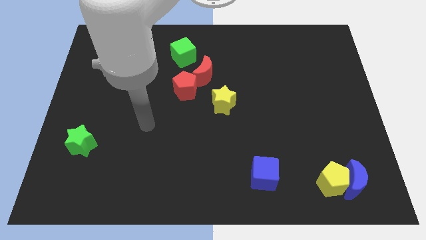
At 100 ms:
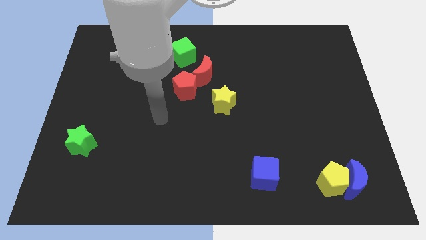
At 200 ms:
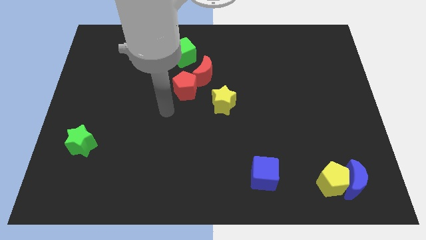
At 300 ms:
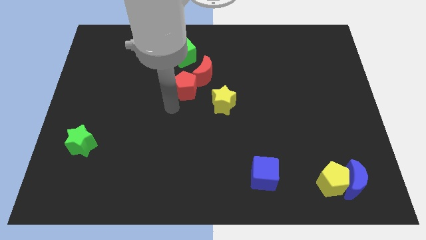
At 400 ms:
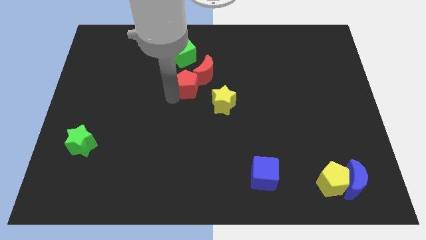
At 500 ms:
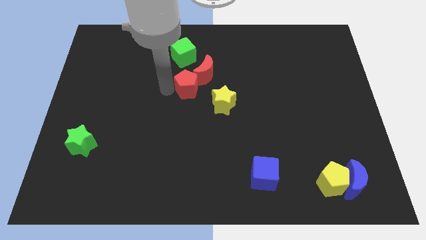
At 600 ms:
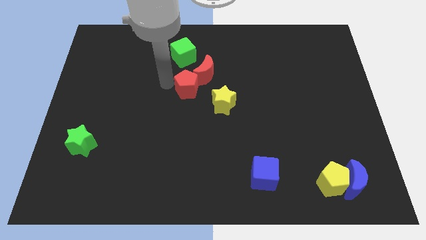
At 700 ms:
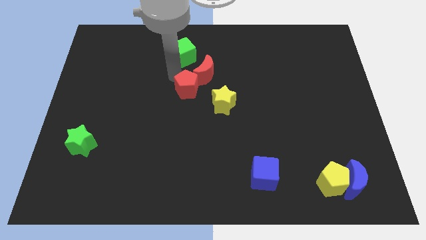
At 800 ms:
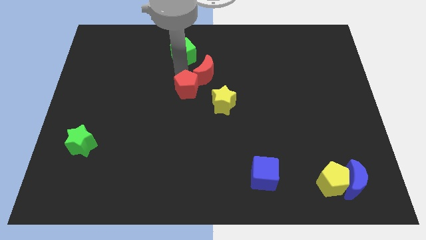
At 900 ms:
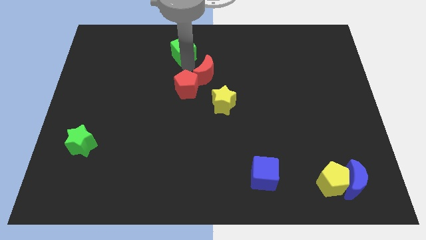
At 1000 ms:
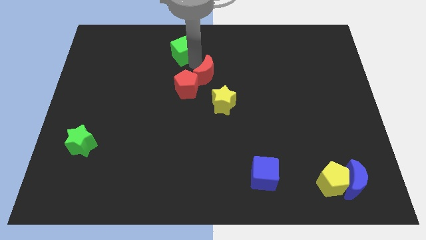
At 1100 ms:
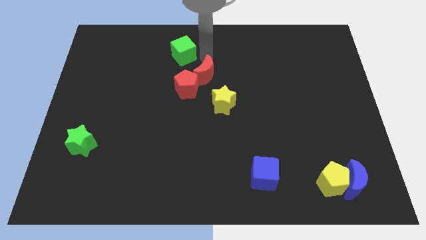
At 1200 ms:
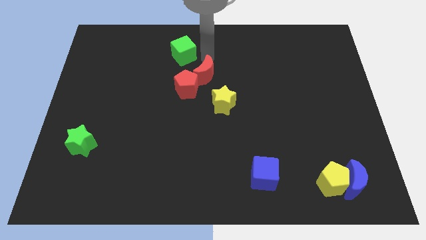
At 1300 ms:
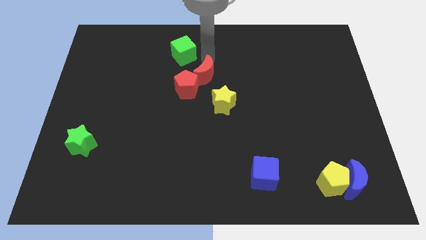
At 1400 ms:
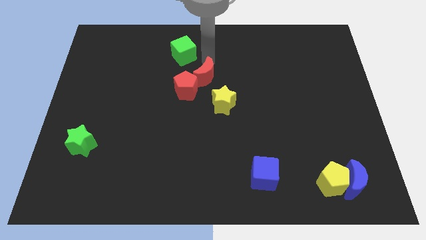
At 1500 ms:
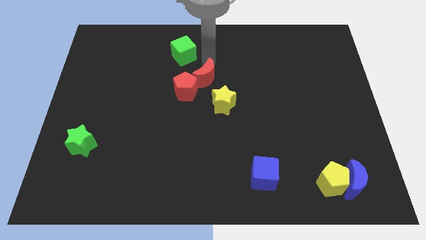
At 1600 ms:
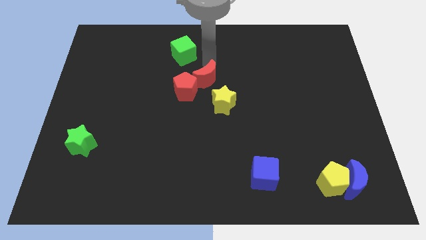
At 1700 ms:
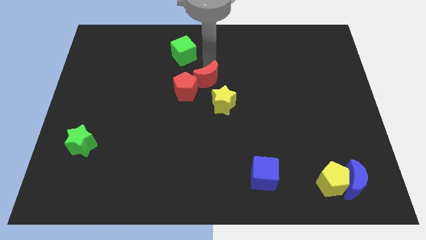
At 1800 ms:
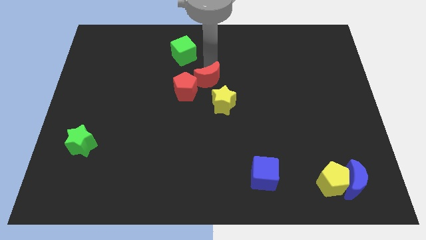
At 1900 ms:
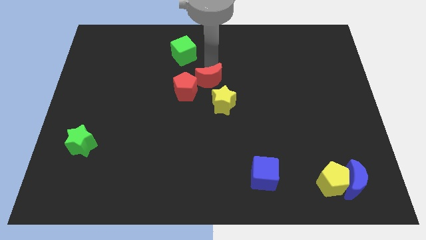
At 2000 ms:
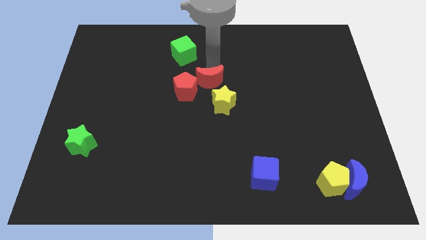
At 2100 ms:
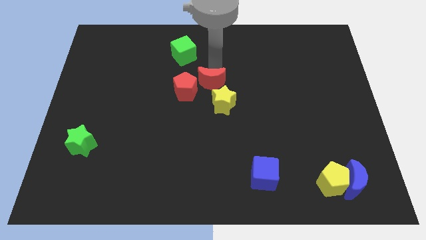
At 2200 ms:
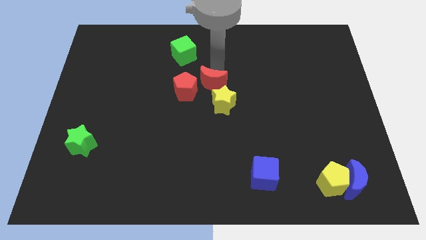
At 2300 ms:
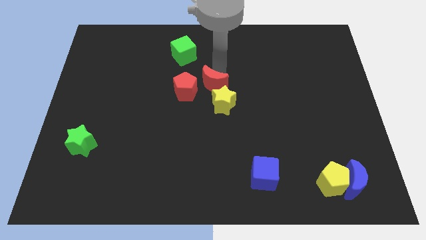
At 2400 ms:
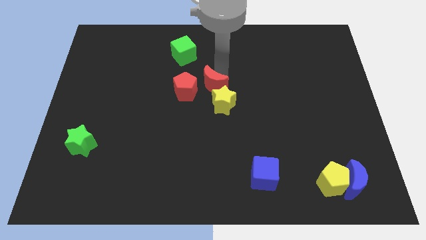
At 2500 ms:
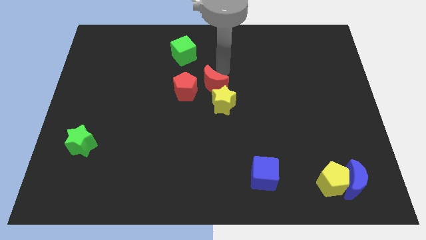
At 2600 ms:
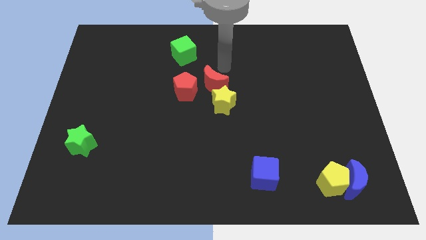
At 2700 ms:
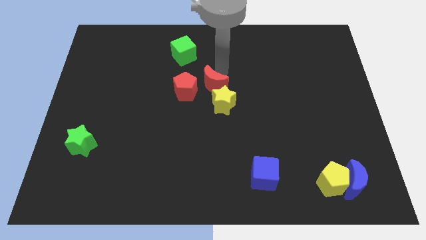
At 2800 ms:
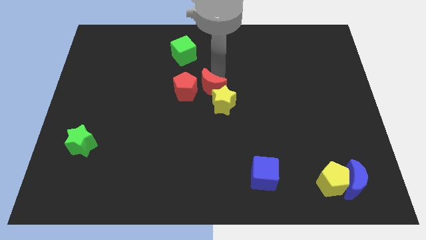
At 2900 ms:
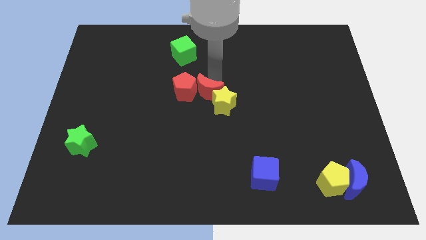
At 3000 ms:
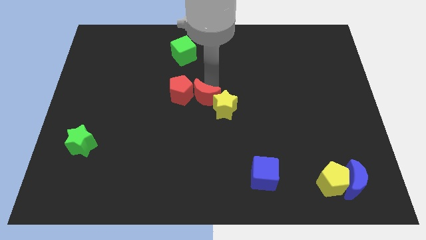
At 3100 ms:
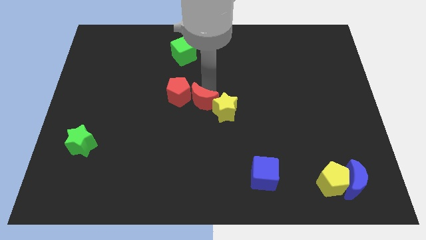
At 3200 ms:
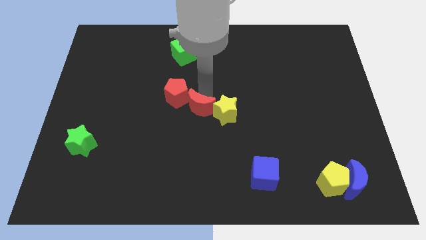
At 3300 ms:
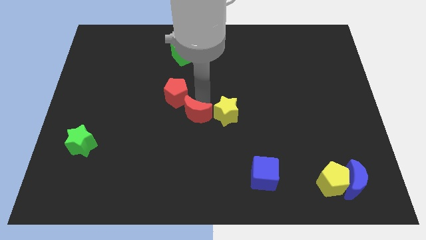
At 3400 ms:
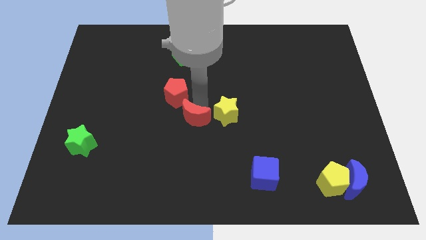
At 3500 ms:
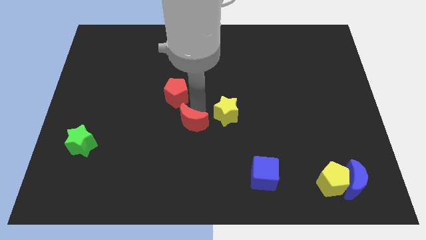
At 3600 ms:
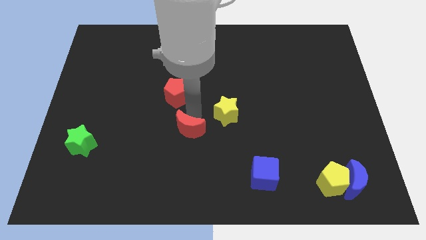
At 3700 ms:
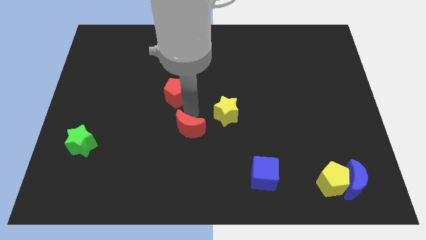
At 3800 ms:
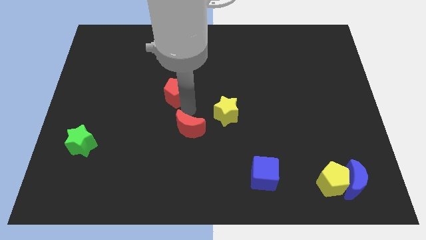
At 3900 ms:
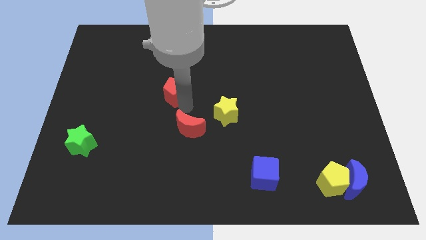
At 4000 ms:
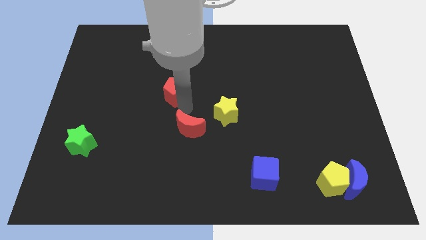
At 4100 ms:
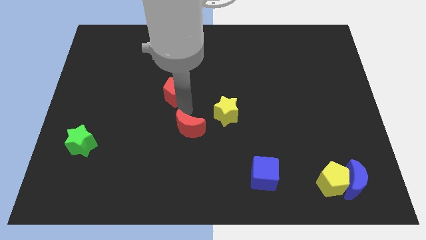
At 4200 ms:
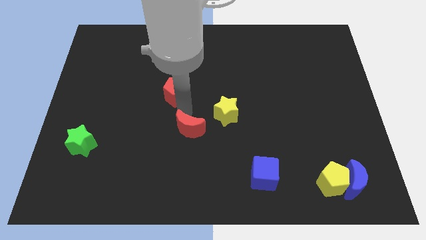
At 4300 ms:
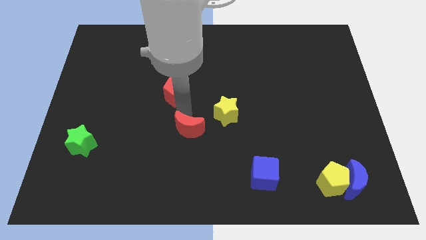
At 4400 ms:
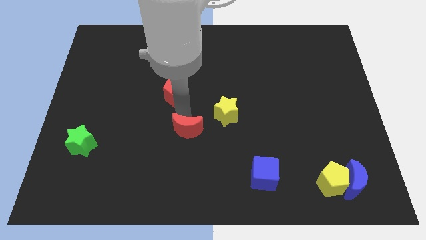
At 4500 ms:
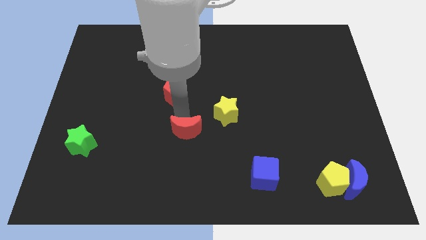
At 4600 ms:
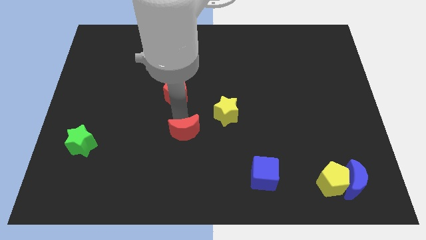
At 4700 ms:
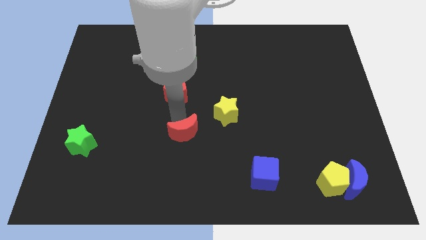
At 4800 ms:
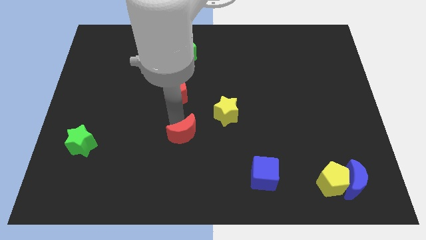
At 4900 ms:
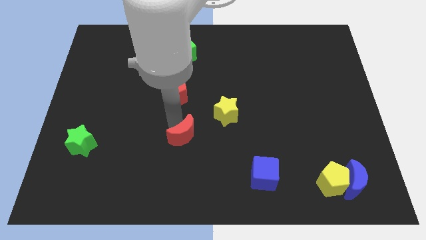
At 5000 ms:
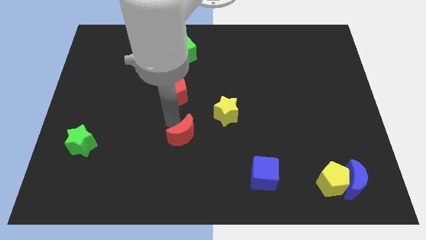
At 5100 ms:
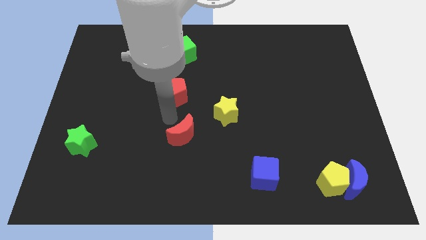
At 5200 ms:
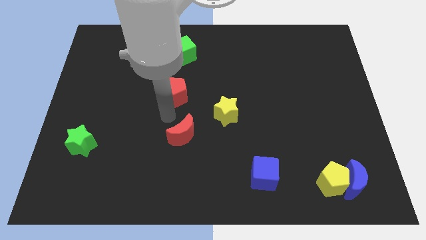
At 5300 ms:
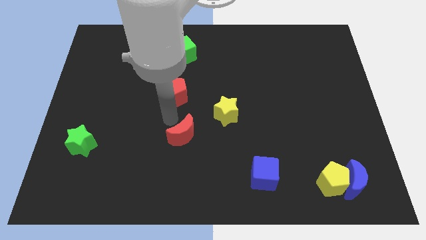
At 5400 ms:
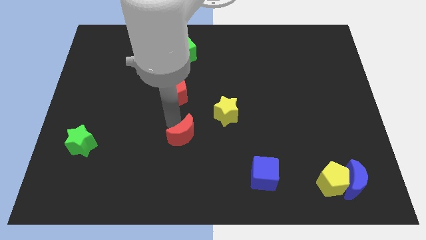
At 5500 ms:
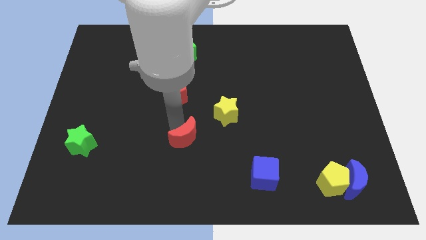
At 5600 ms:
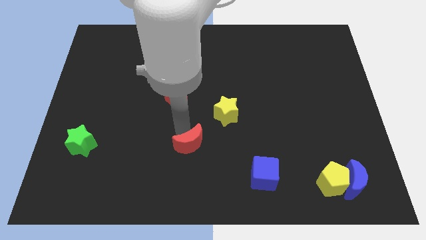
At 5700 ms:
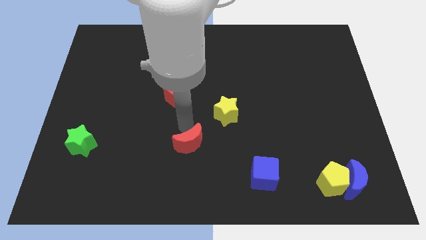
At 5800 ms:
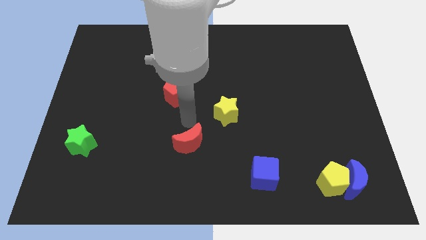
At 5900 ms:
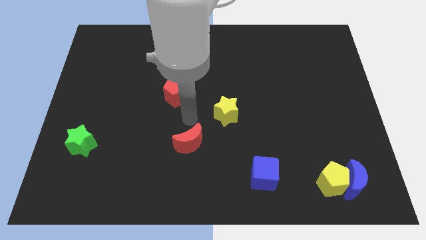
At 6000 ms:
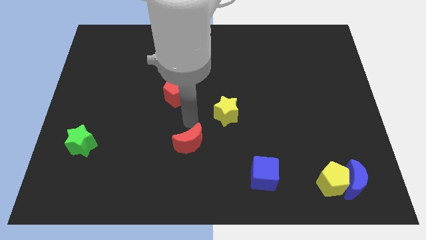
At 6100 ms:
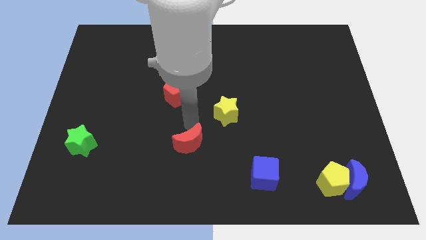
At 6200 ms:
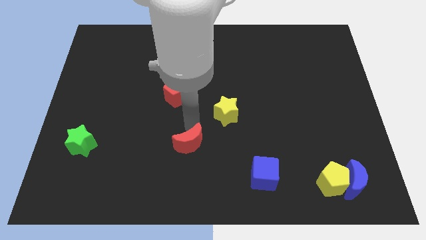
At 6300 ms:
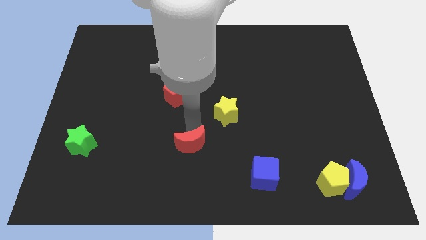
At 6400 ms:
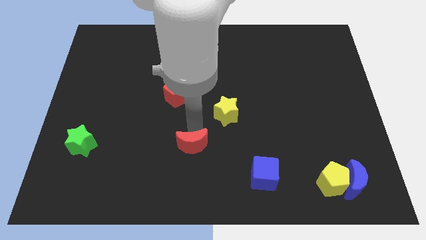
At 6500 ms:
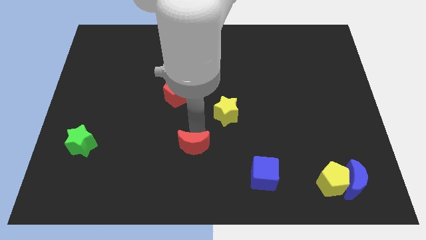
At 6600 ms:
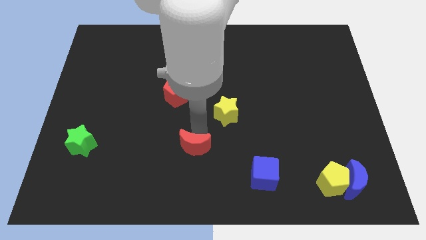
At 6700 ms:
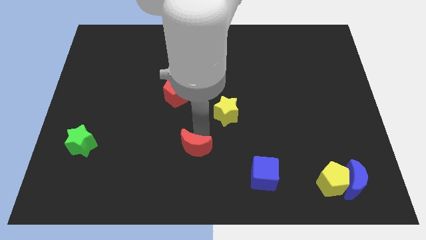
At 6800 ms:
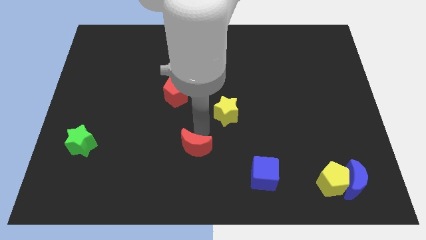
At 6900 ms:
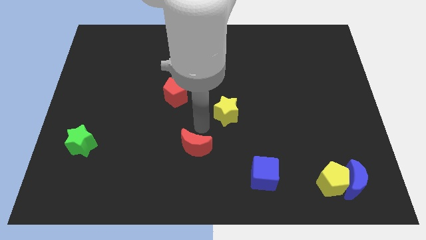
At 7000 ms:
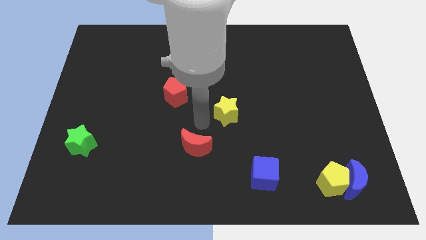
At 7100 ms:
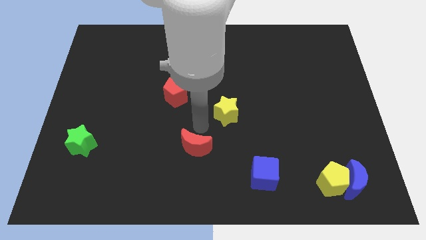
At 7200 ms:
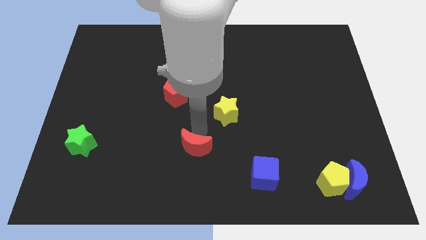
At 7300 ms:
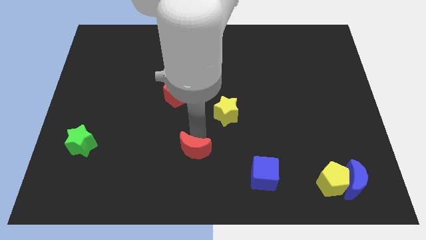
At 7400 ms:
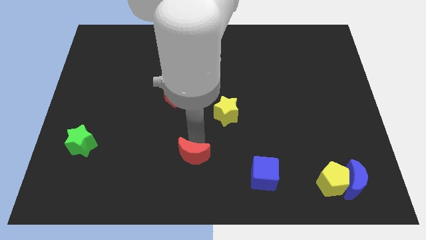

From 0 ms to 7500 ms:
move the red moon to the bottom
